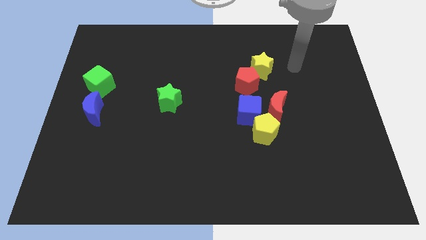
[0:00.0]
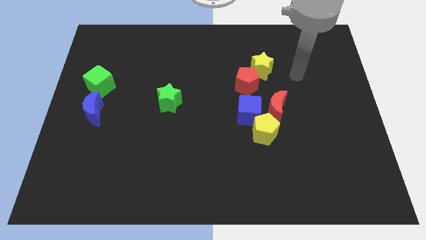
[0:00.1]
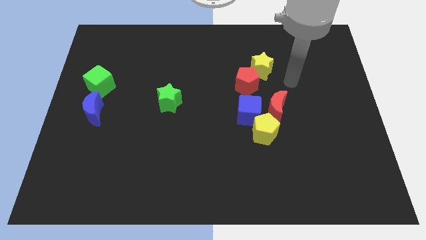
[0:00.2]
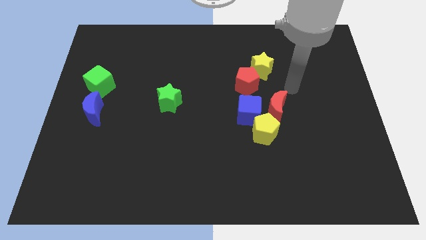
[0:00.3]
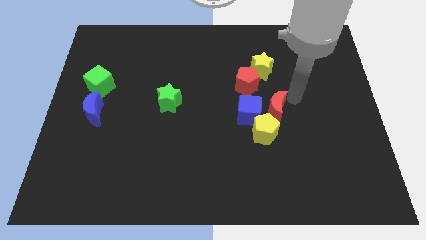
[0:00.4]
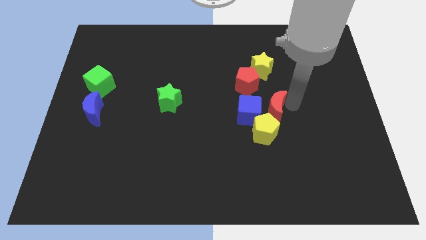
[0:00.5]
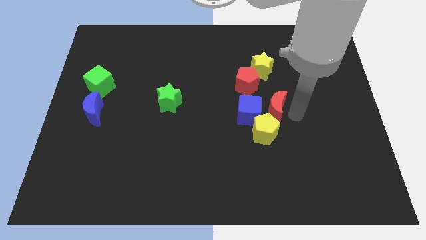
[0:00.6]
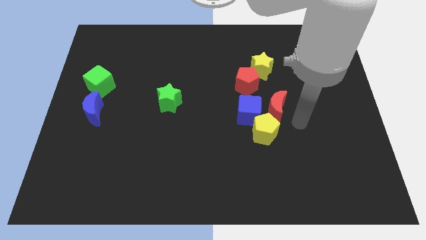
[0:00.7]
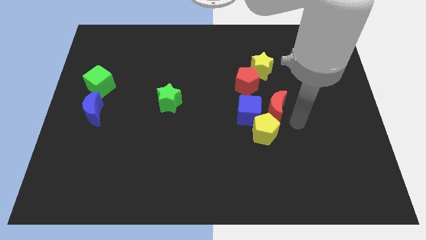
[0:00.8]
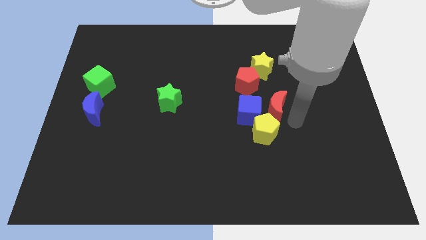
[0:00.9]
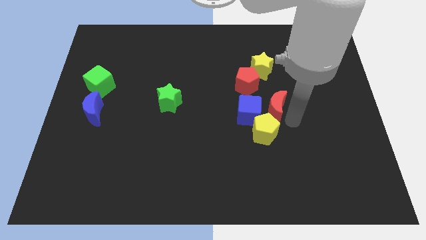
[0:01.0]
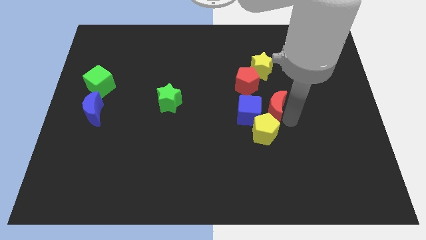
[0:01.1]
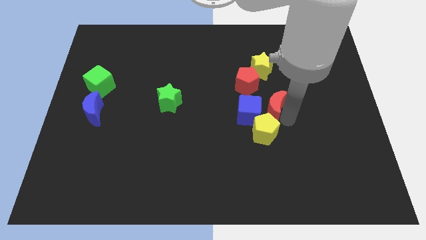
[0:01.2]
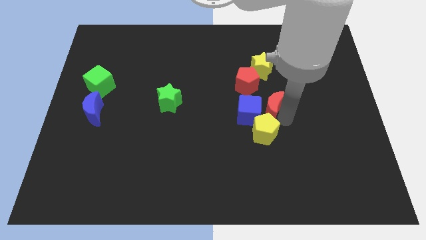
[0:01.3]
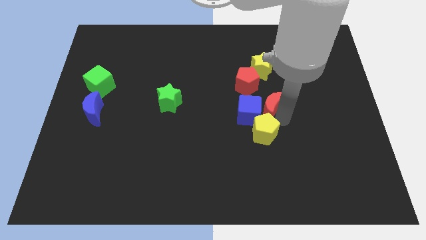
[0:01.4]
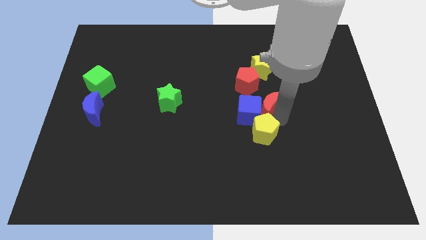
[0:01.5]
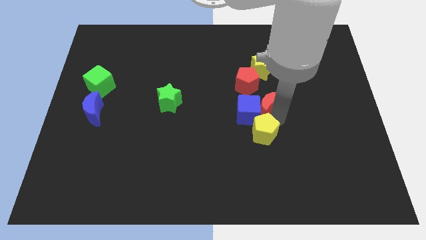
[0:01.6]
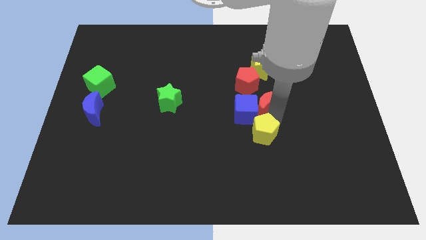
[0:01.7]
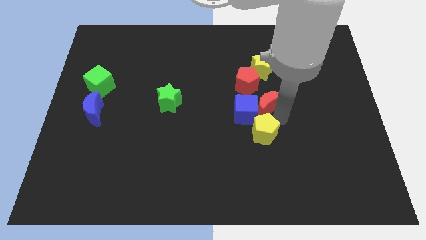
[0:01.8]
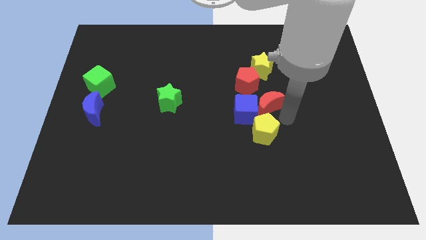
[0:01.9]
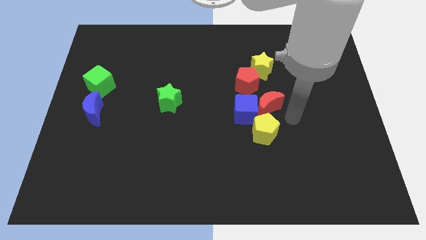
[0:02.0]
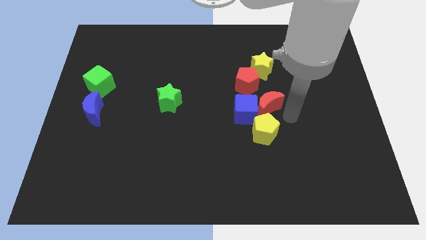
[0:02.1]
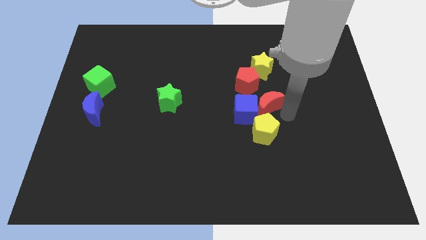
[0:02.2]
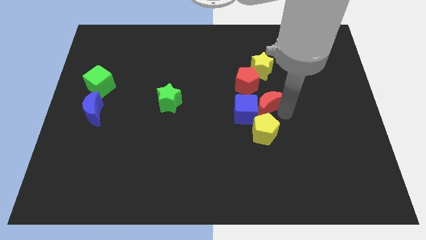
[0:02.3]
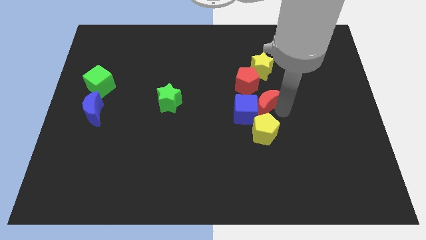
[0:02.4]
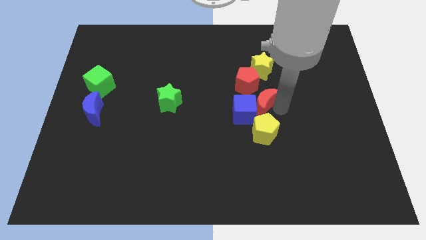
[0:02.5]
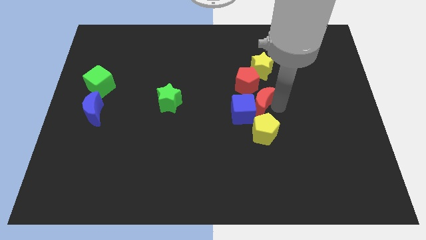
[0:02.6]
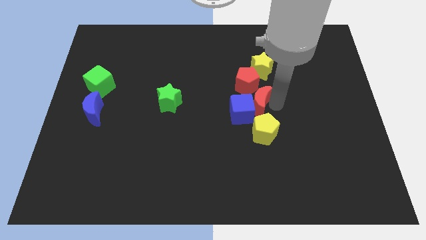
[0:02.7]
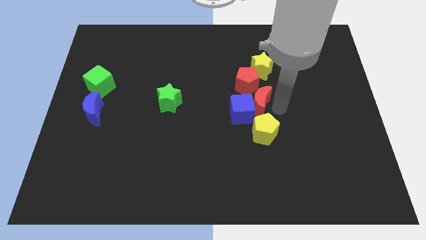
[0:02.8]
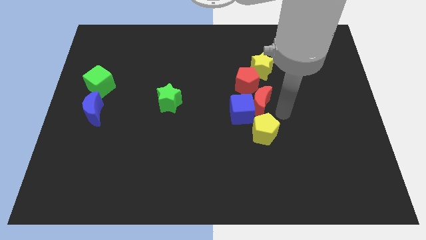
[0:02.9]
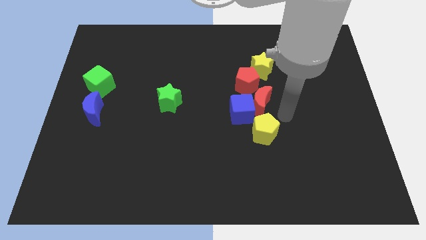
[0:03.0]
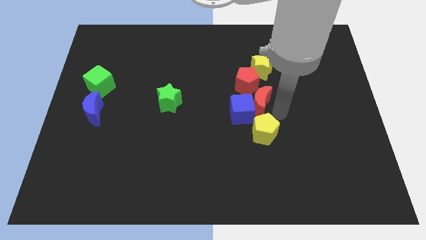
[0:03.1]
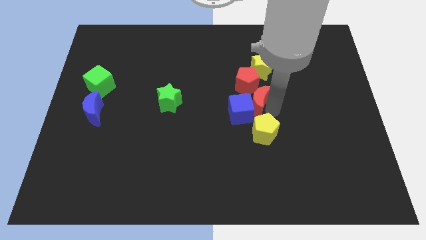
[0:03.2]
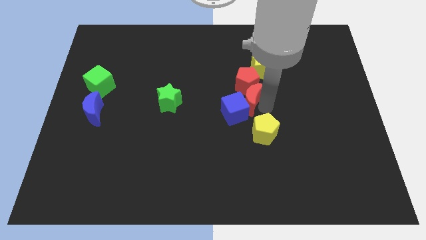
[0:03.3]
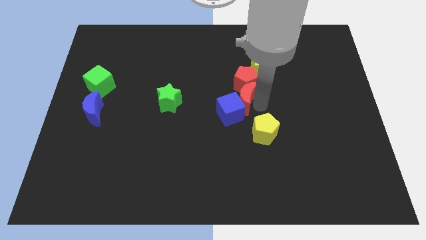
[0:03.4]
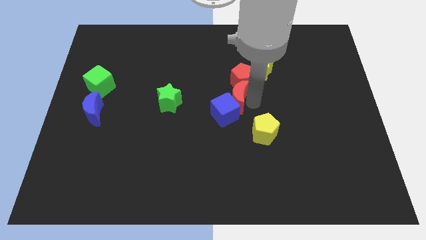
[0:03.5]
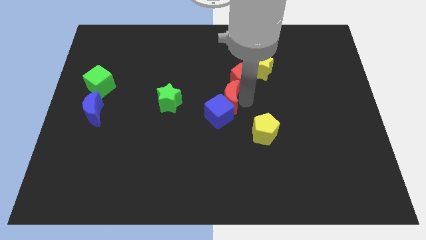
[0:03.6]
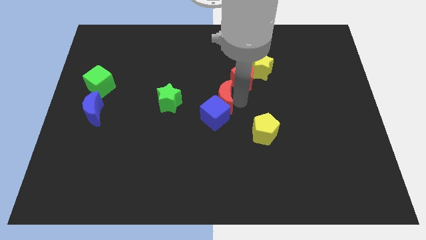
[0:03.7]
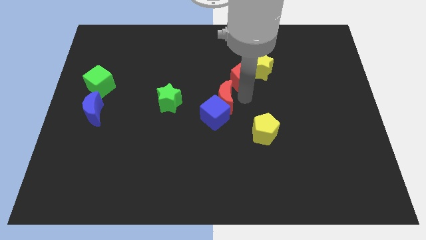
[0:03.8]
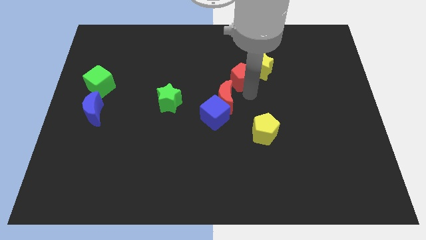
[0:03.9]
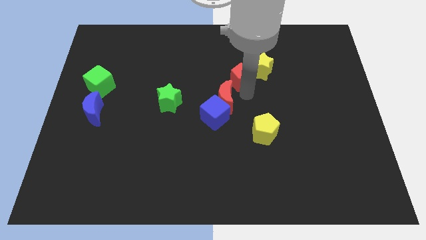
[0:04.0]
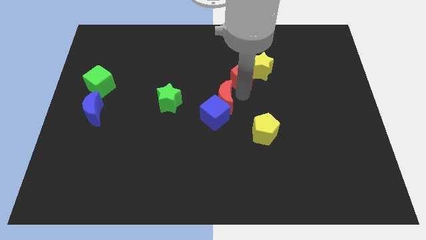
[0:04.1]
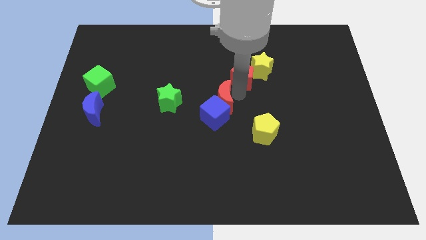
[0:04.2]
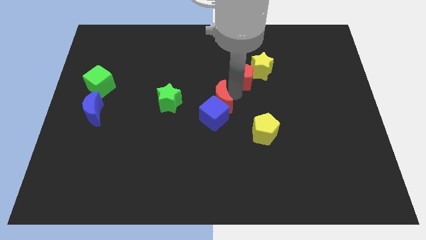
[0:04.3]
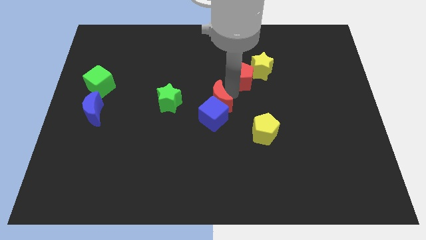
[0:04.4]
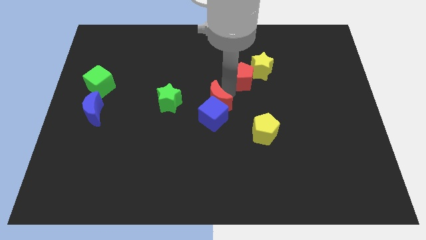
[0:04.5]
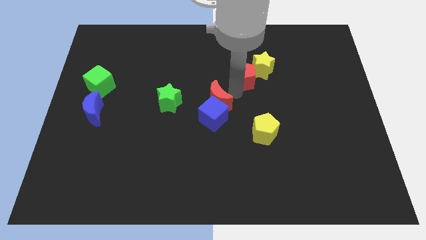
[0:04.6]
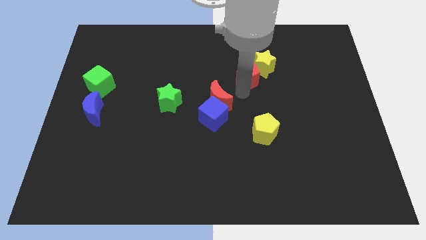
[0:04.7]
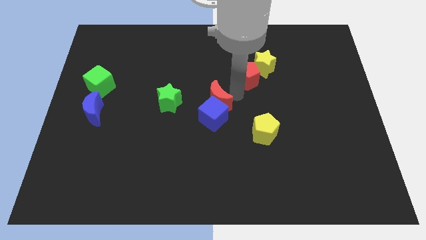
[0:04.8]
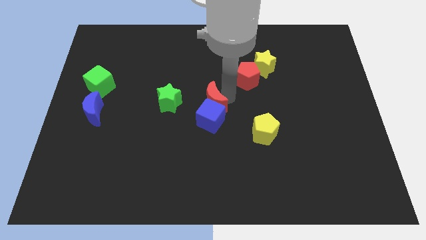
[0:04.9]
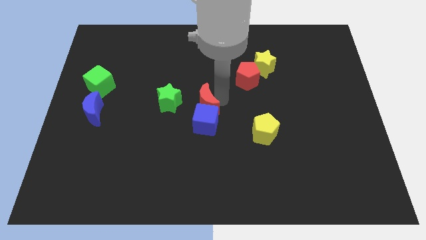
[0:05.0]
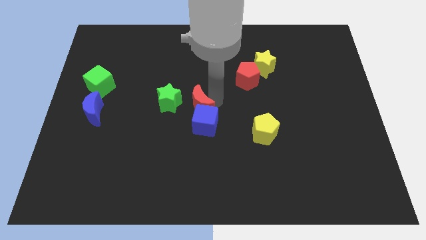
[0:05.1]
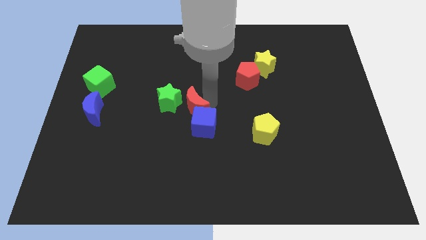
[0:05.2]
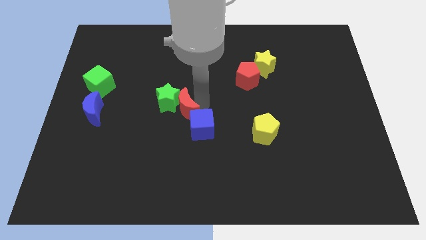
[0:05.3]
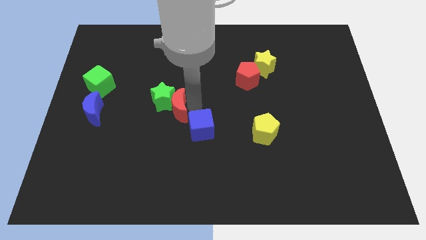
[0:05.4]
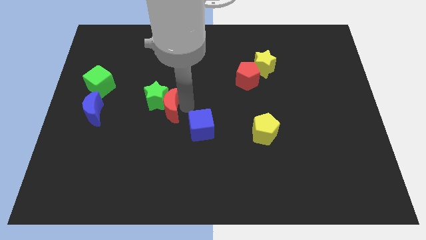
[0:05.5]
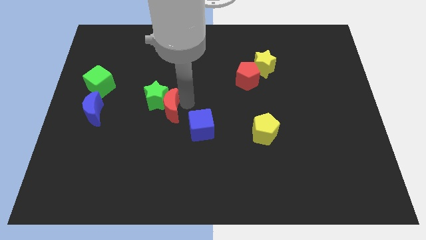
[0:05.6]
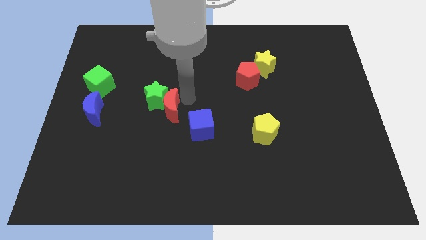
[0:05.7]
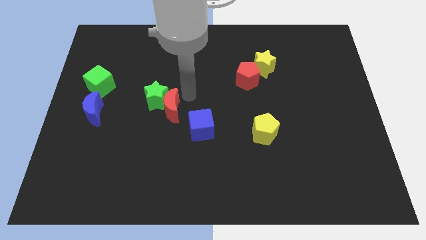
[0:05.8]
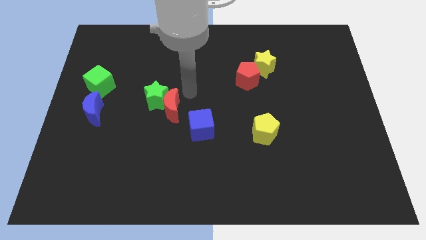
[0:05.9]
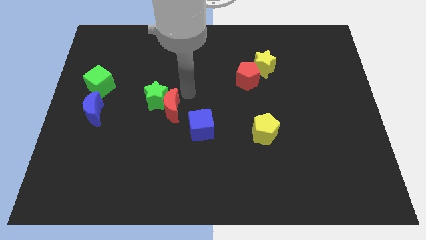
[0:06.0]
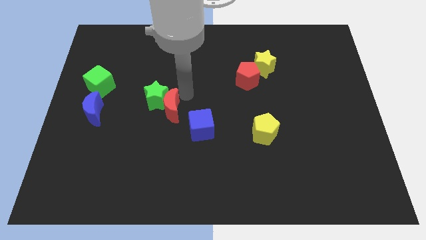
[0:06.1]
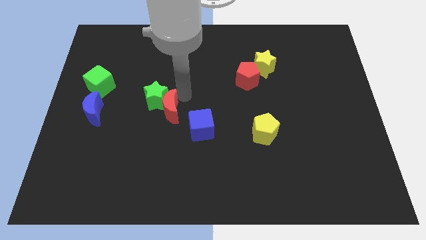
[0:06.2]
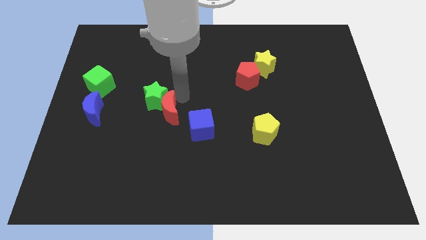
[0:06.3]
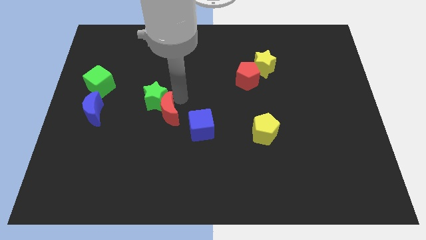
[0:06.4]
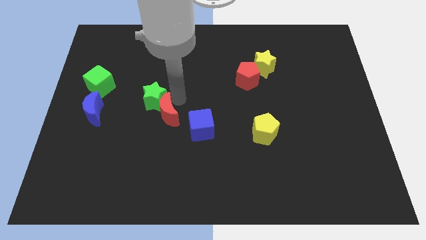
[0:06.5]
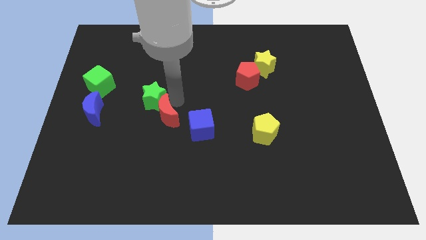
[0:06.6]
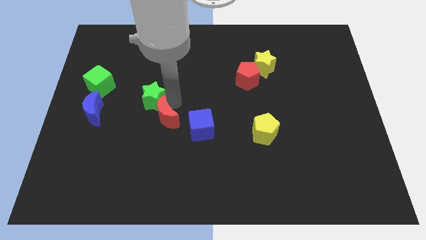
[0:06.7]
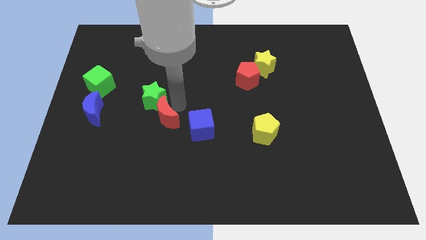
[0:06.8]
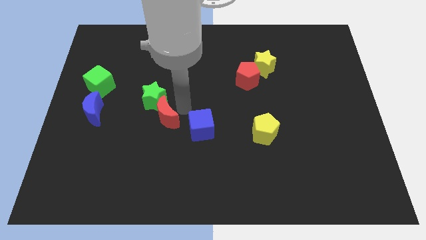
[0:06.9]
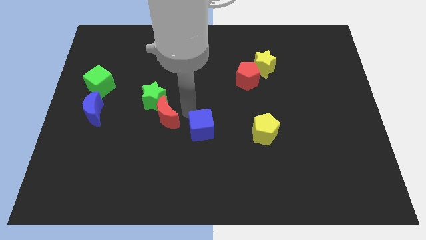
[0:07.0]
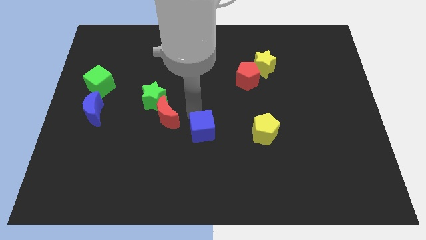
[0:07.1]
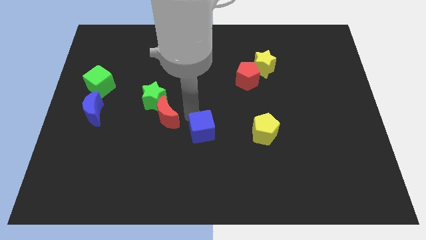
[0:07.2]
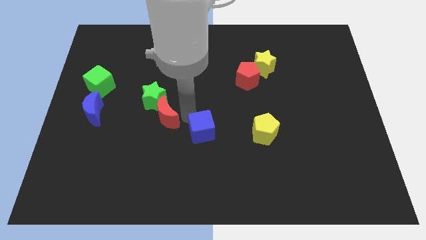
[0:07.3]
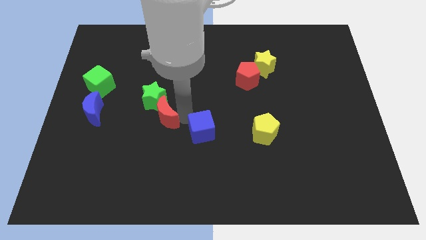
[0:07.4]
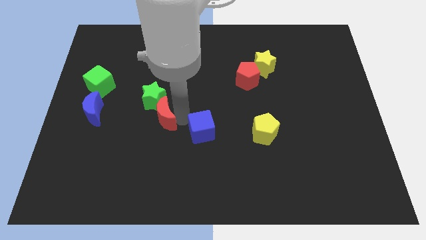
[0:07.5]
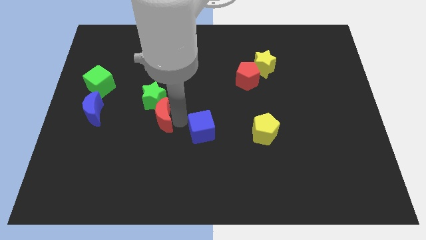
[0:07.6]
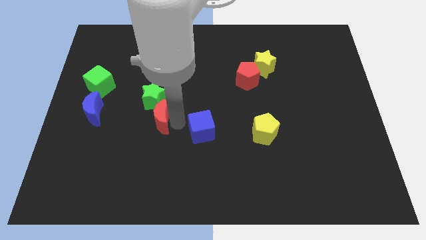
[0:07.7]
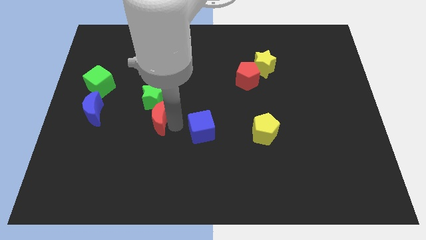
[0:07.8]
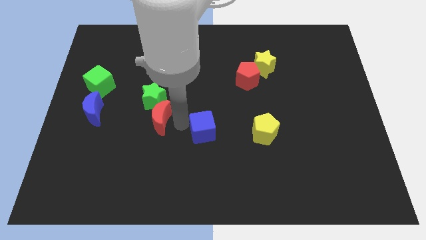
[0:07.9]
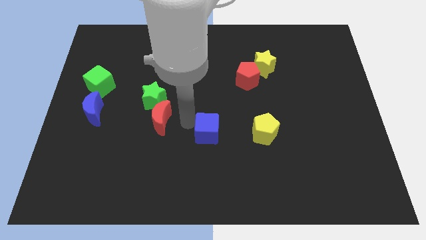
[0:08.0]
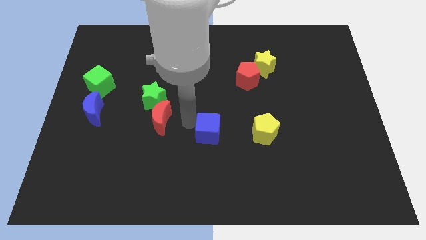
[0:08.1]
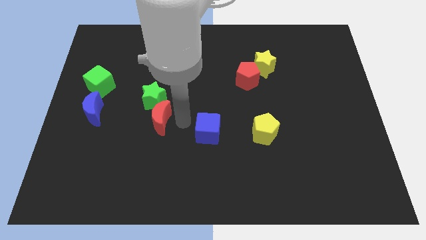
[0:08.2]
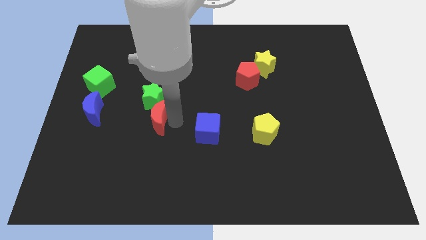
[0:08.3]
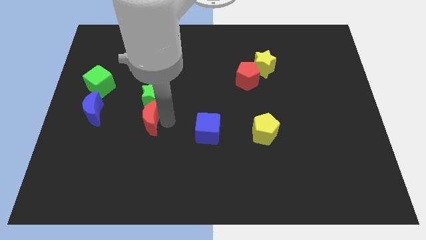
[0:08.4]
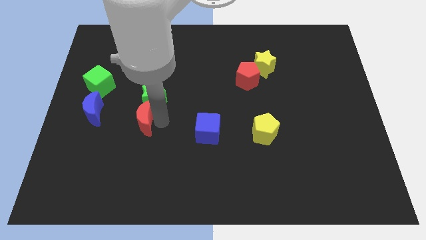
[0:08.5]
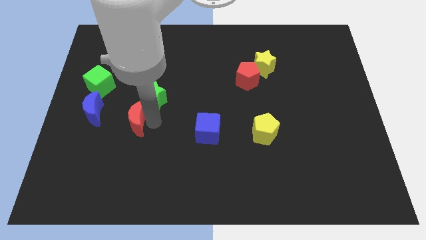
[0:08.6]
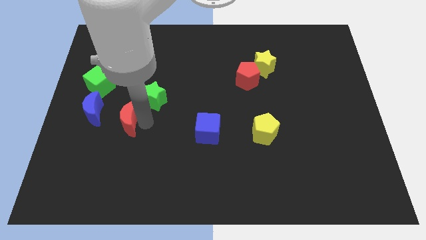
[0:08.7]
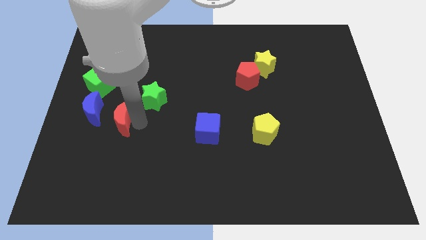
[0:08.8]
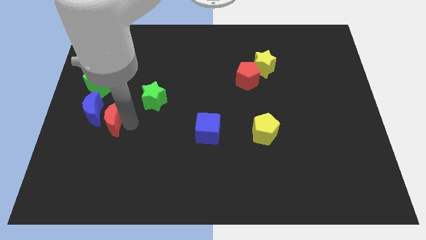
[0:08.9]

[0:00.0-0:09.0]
put the red moon next to the blue moon
